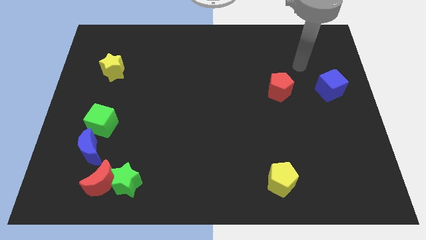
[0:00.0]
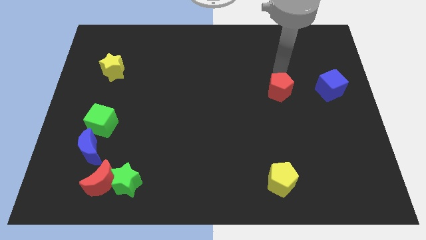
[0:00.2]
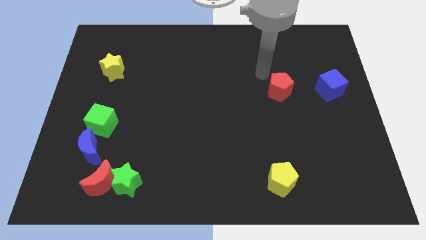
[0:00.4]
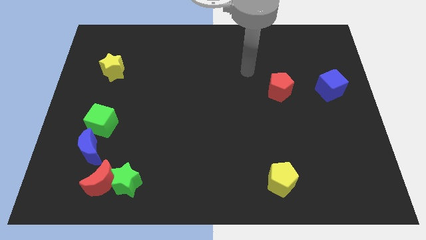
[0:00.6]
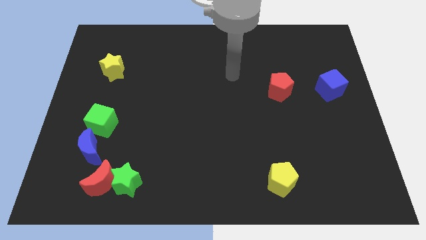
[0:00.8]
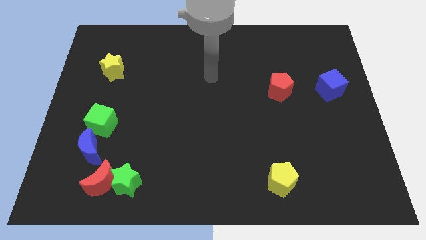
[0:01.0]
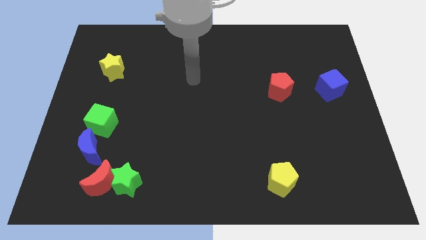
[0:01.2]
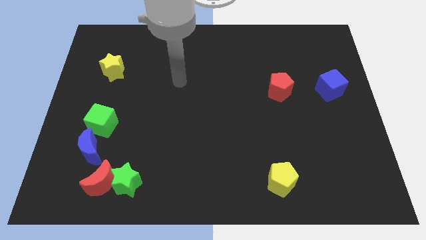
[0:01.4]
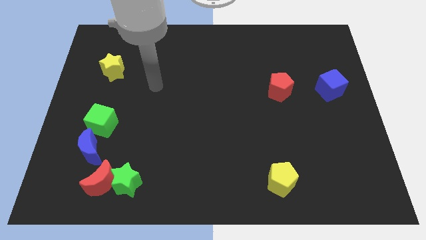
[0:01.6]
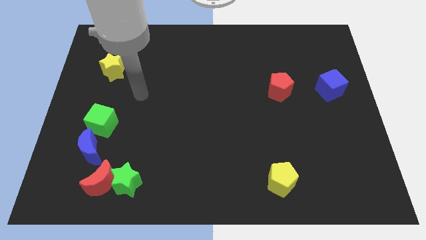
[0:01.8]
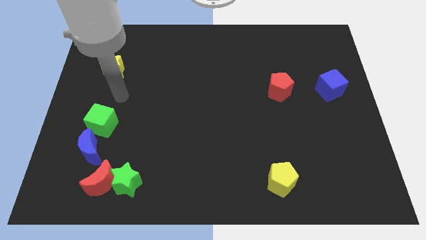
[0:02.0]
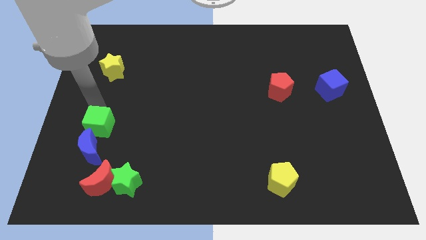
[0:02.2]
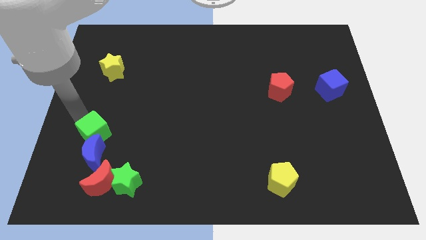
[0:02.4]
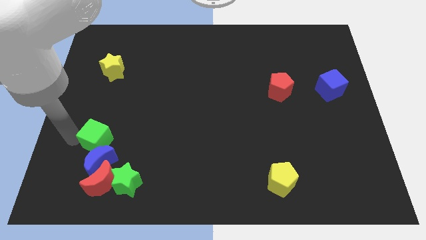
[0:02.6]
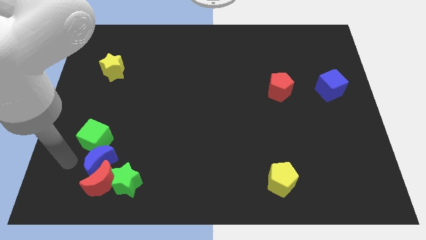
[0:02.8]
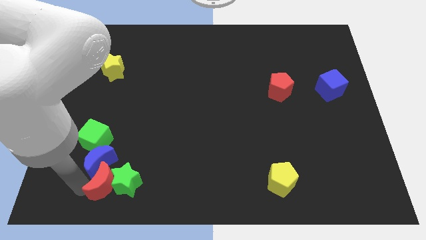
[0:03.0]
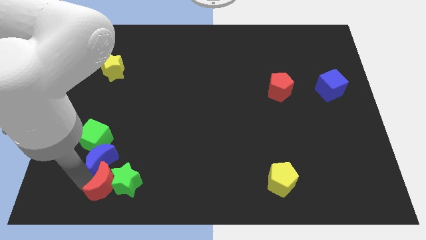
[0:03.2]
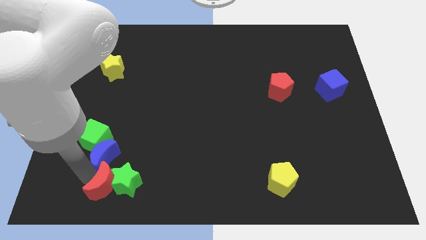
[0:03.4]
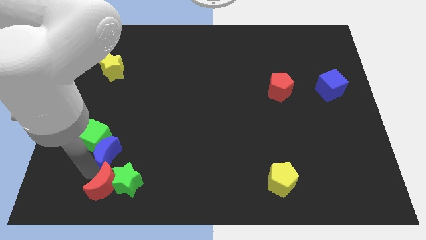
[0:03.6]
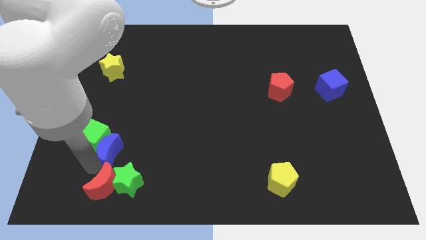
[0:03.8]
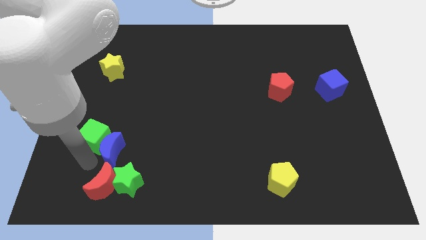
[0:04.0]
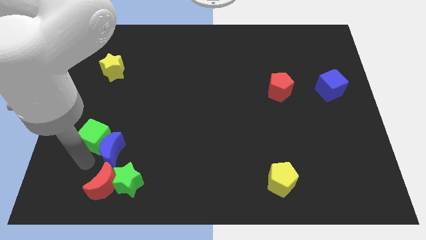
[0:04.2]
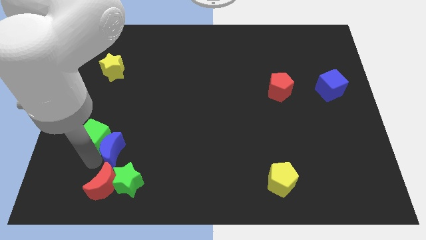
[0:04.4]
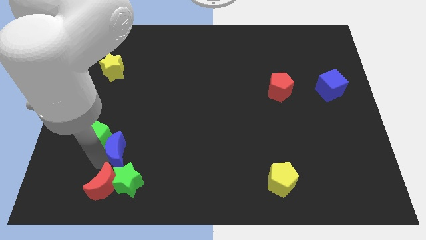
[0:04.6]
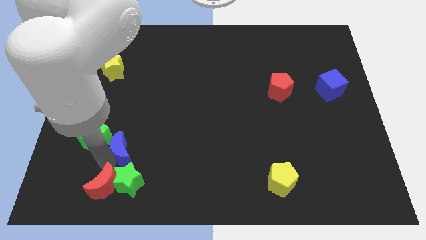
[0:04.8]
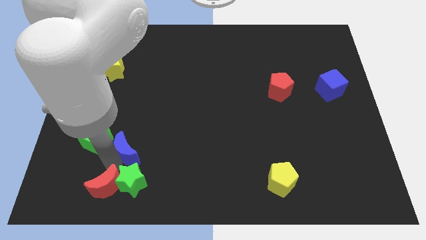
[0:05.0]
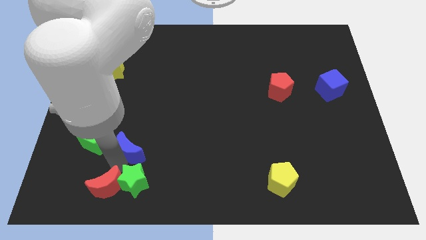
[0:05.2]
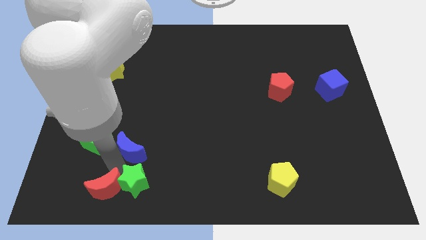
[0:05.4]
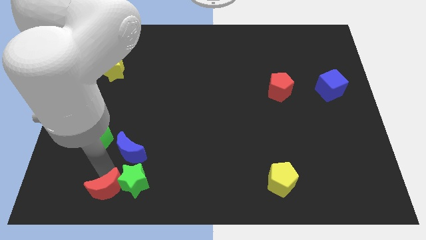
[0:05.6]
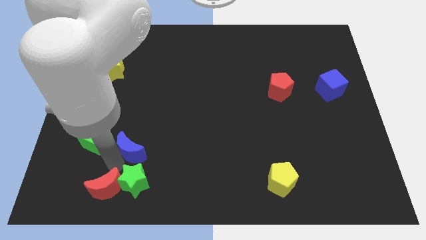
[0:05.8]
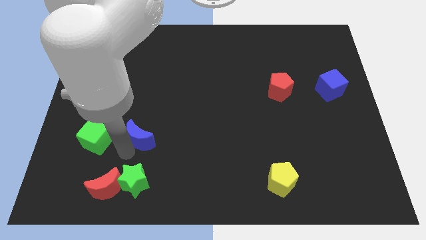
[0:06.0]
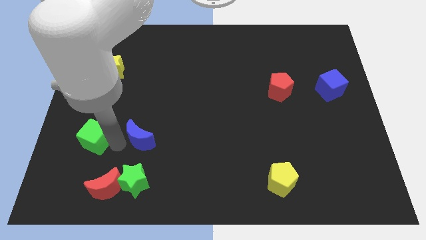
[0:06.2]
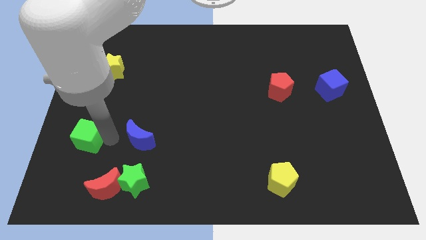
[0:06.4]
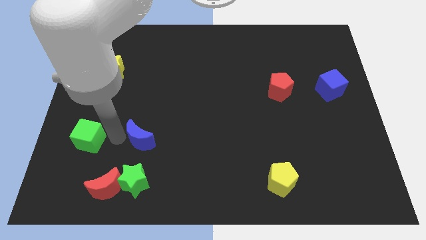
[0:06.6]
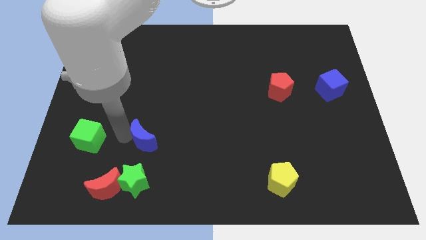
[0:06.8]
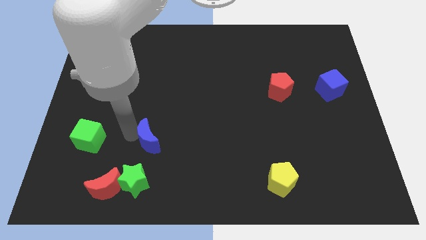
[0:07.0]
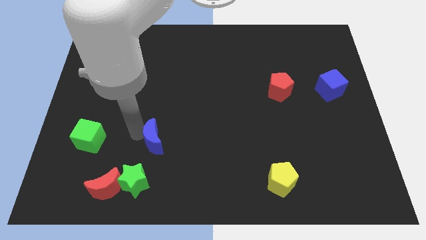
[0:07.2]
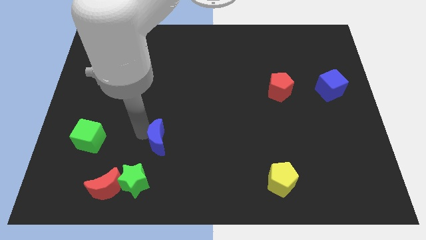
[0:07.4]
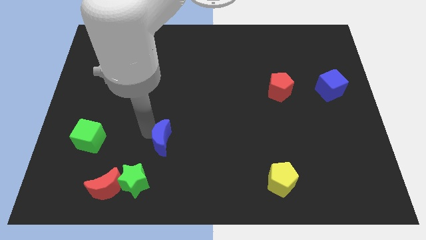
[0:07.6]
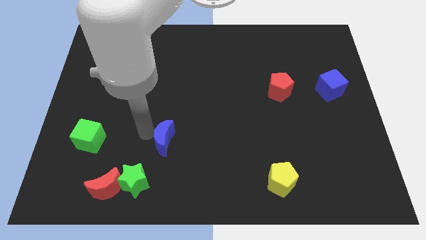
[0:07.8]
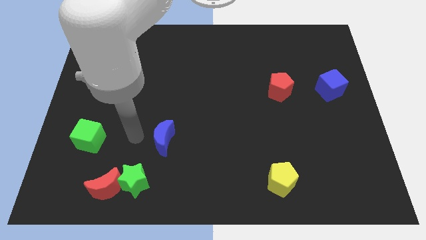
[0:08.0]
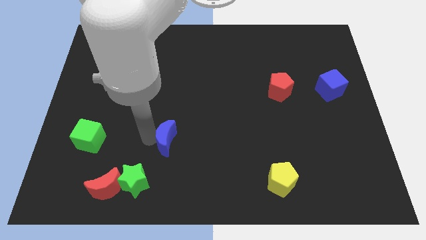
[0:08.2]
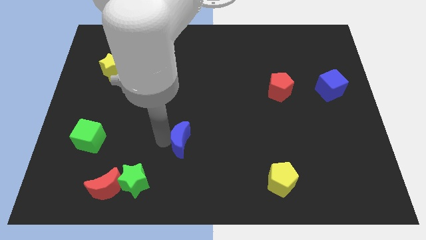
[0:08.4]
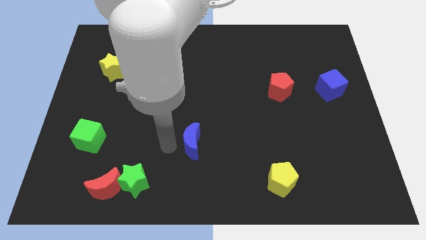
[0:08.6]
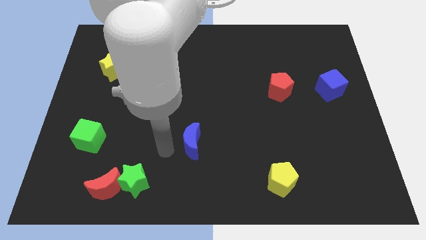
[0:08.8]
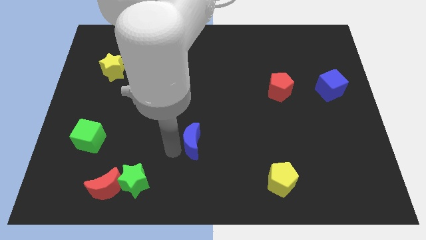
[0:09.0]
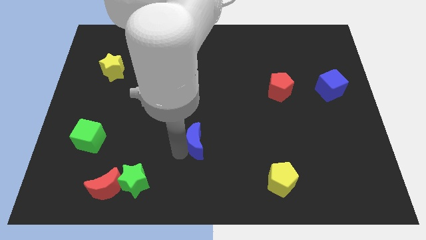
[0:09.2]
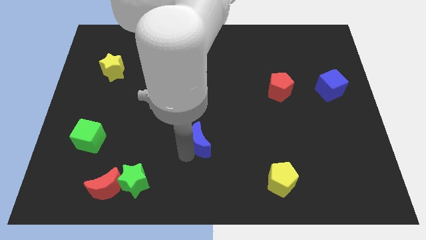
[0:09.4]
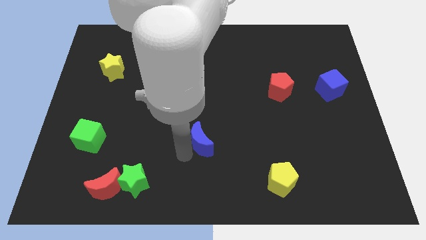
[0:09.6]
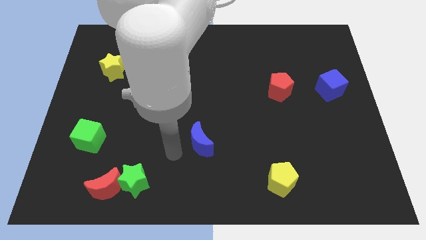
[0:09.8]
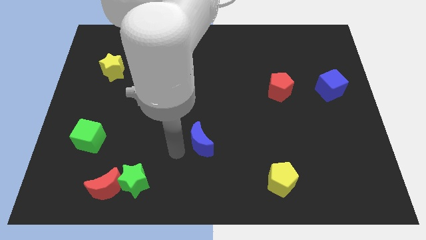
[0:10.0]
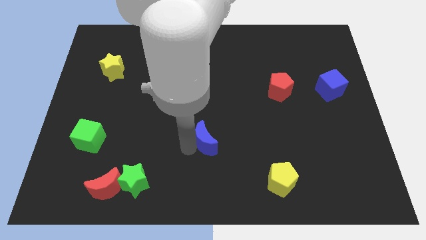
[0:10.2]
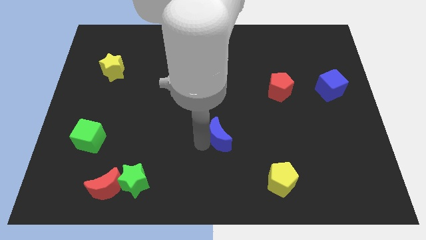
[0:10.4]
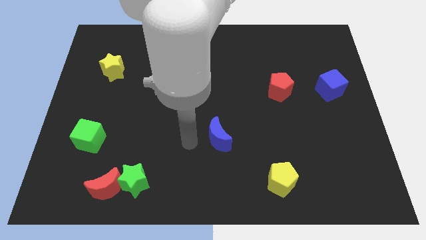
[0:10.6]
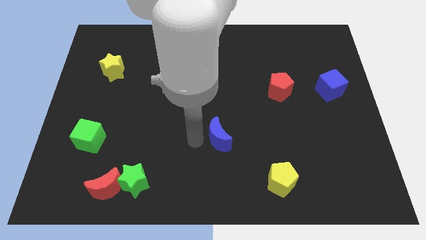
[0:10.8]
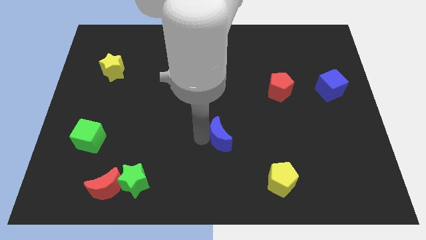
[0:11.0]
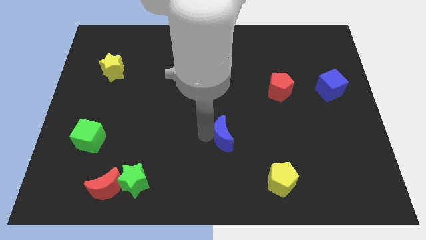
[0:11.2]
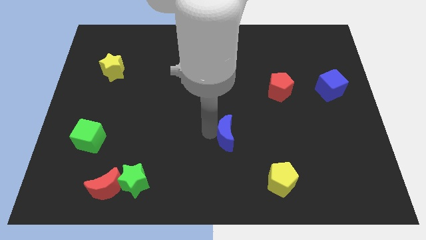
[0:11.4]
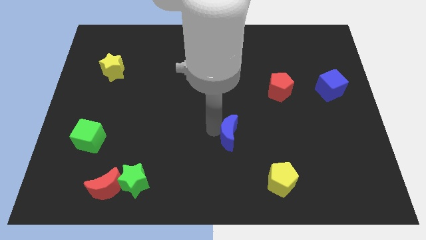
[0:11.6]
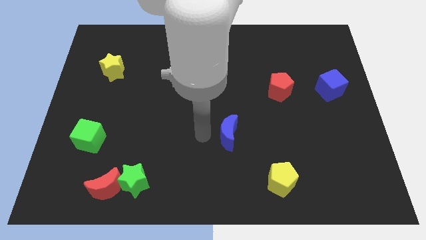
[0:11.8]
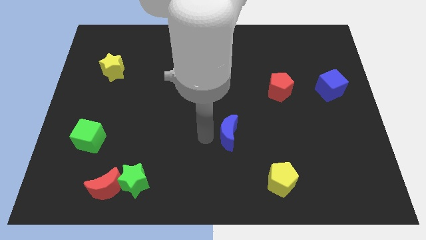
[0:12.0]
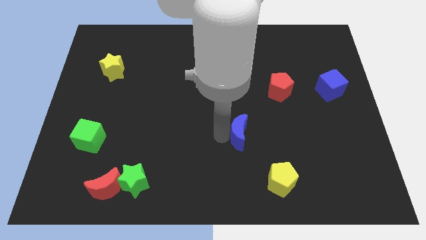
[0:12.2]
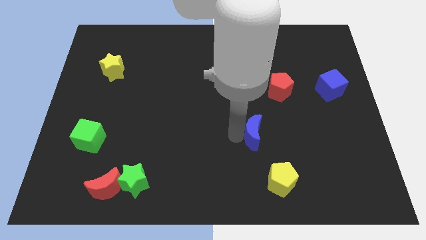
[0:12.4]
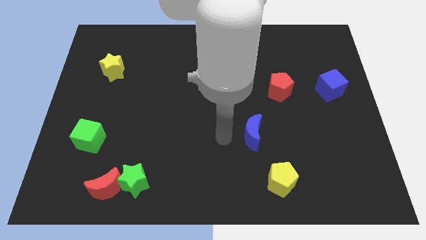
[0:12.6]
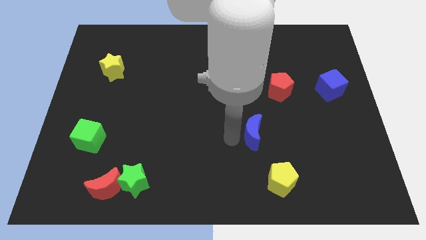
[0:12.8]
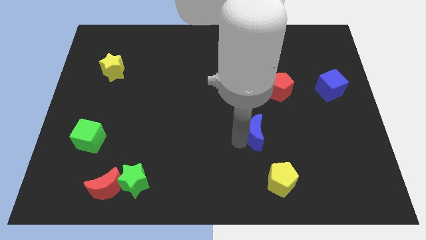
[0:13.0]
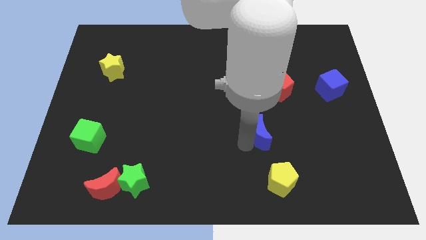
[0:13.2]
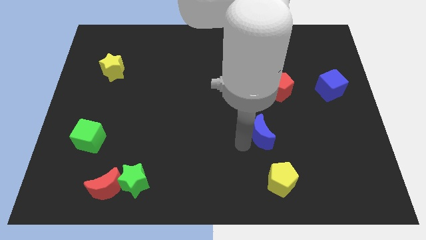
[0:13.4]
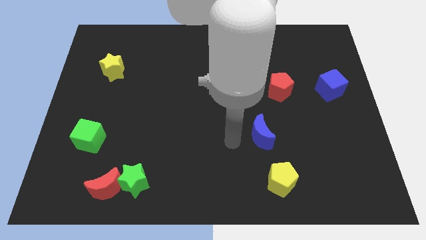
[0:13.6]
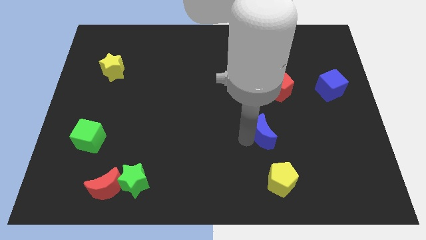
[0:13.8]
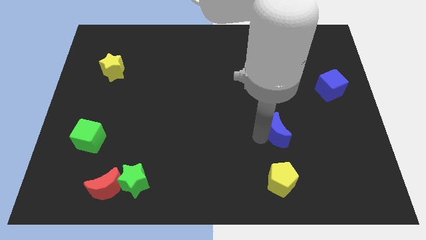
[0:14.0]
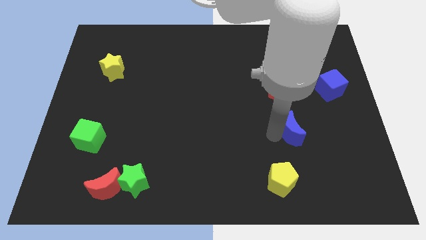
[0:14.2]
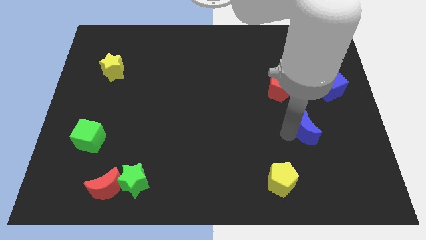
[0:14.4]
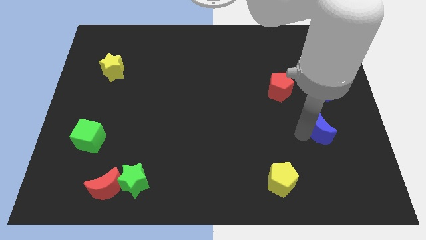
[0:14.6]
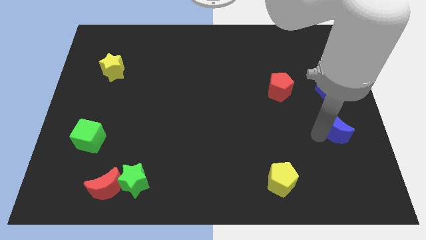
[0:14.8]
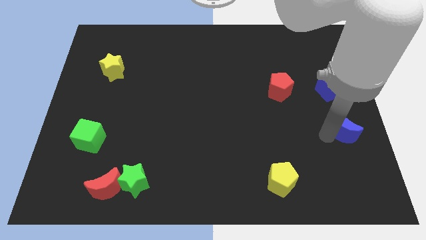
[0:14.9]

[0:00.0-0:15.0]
move the blue moon to the center right

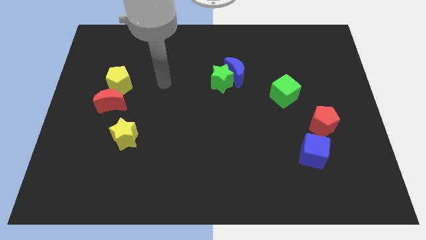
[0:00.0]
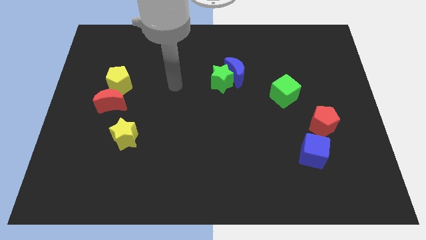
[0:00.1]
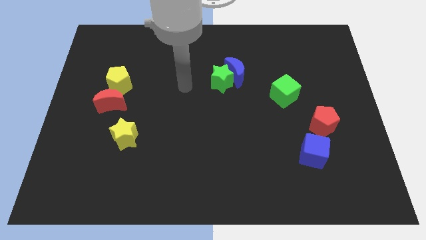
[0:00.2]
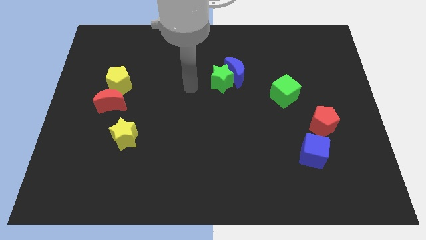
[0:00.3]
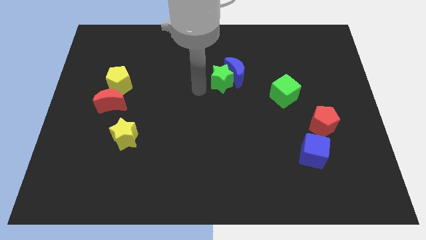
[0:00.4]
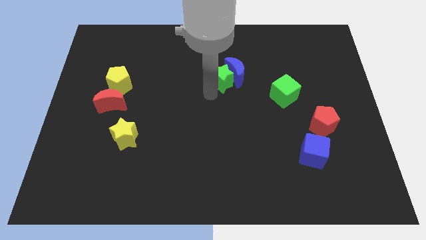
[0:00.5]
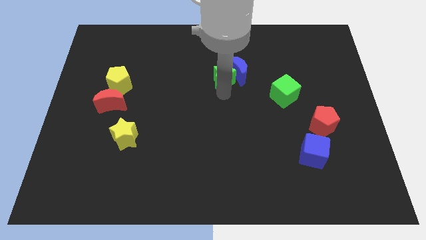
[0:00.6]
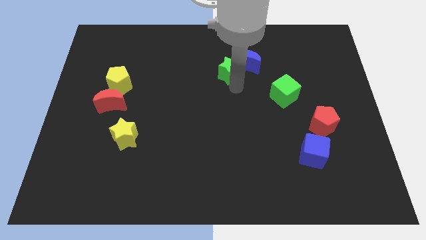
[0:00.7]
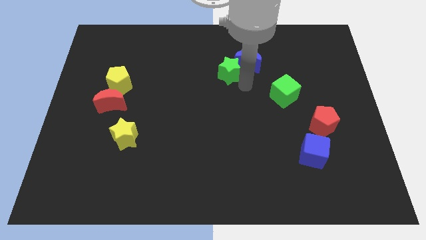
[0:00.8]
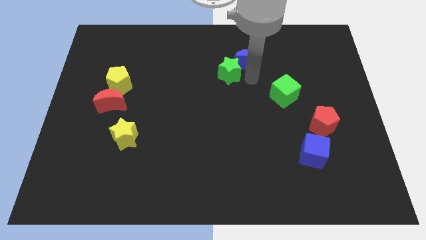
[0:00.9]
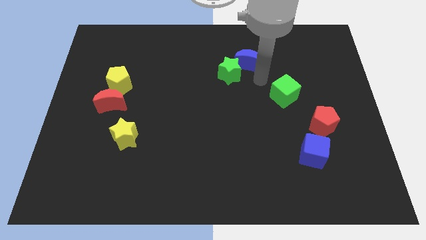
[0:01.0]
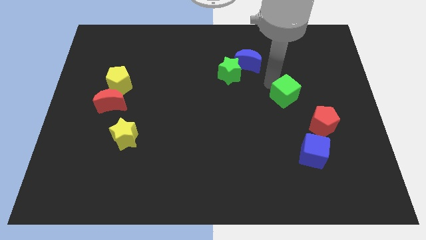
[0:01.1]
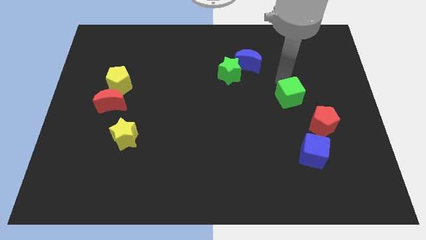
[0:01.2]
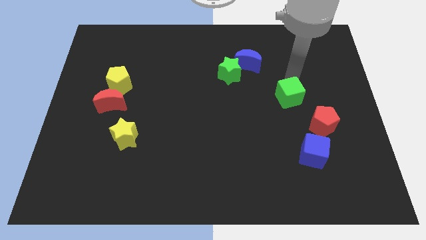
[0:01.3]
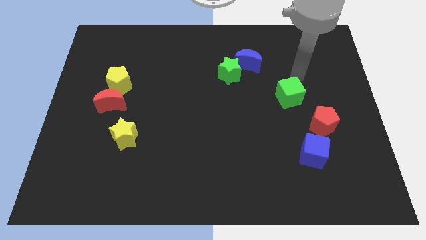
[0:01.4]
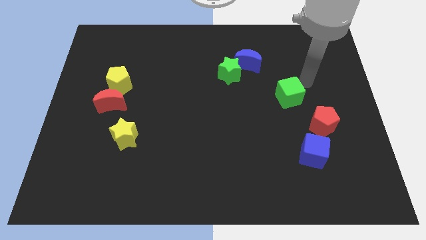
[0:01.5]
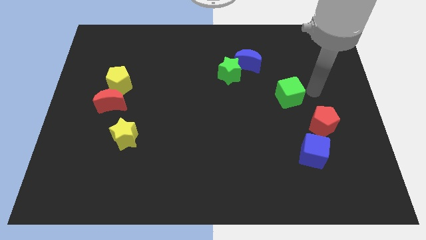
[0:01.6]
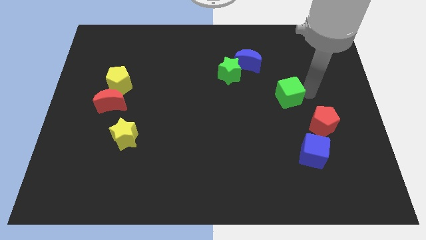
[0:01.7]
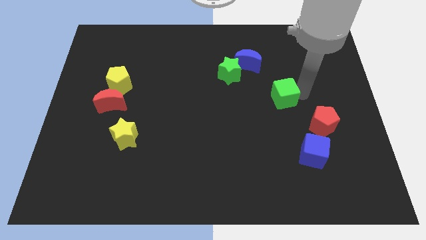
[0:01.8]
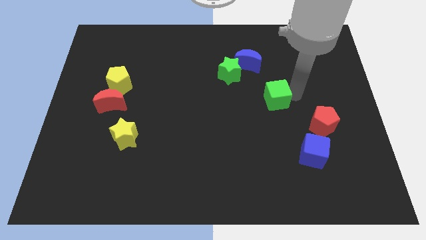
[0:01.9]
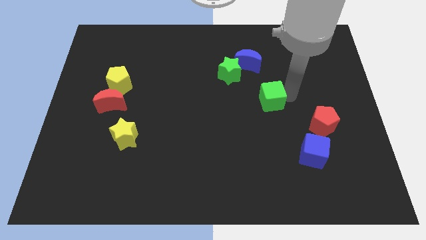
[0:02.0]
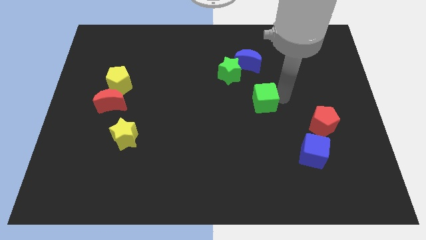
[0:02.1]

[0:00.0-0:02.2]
push the green cube to the middle of the board
